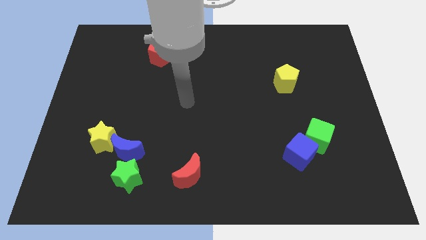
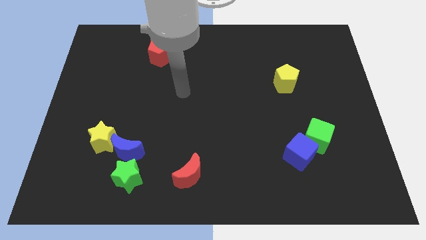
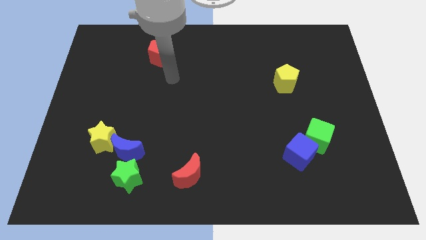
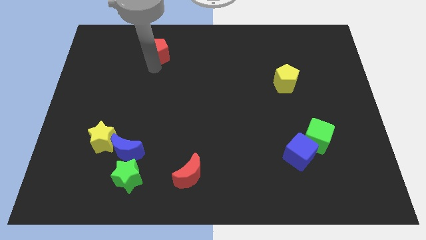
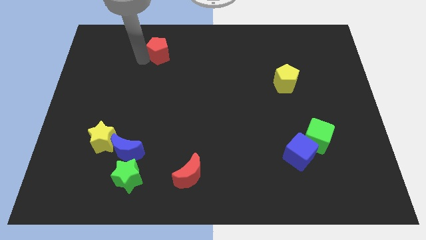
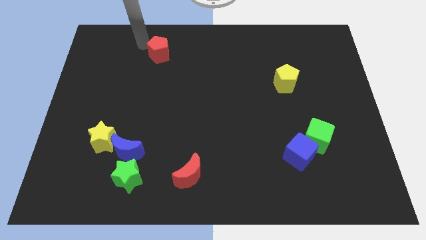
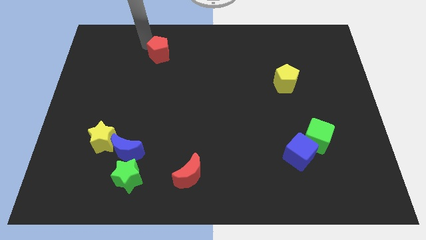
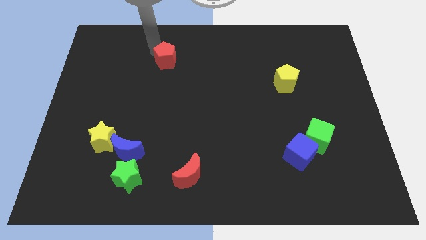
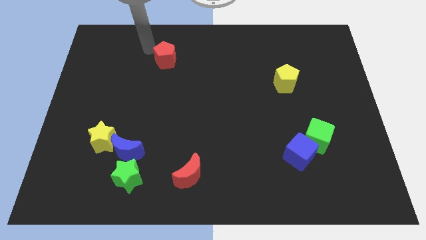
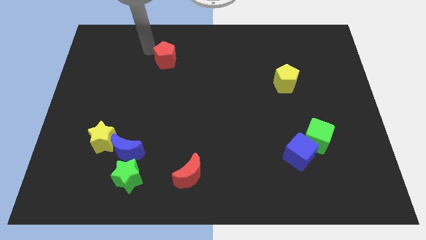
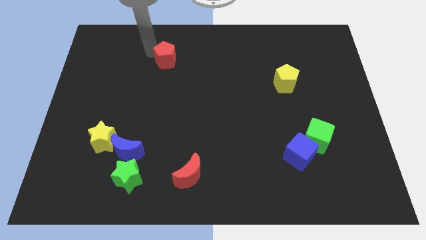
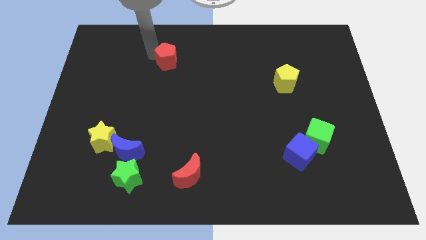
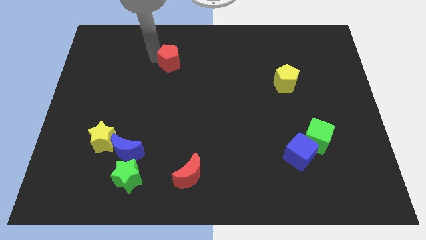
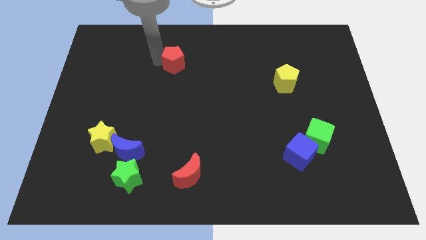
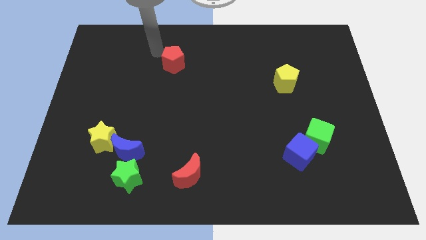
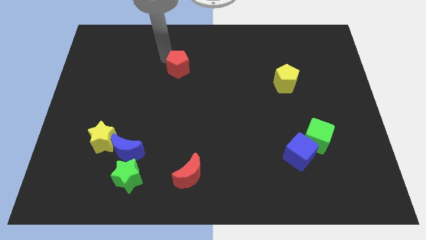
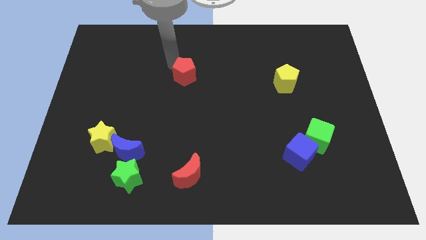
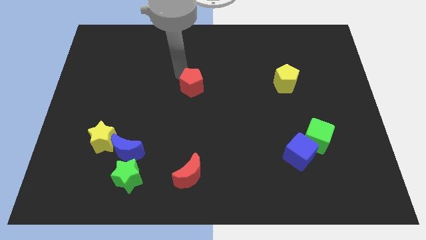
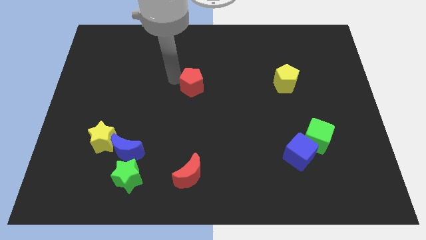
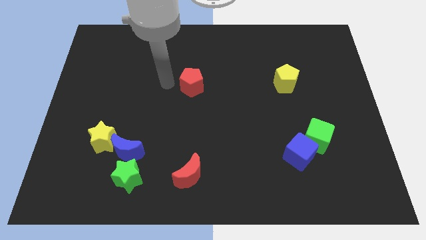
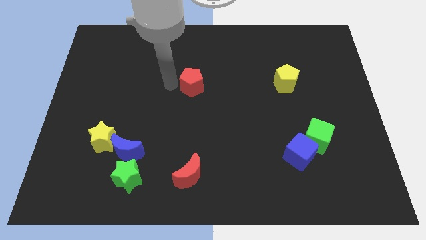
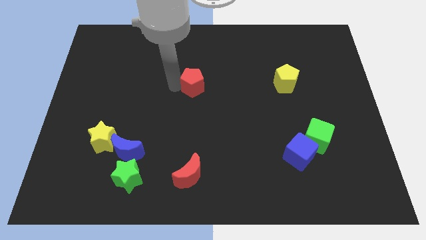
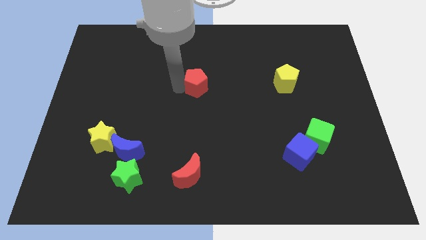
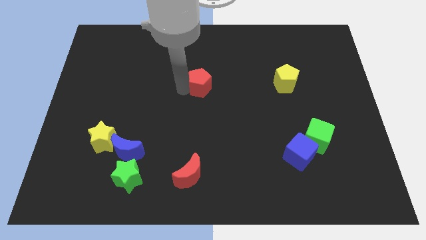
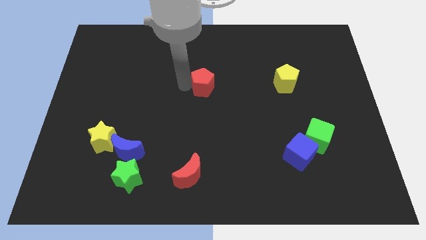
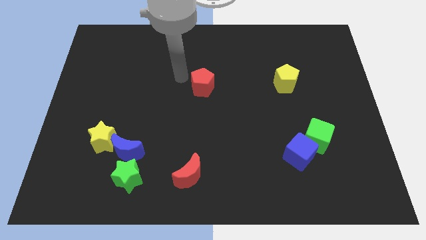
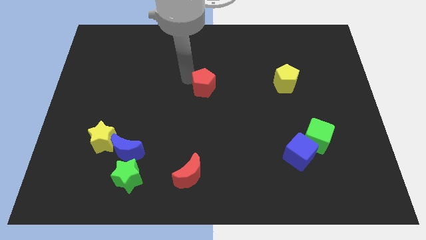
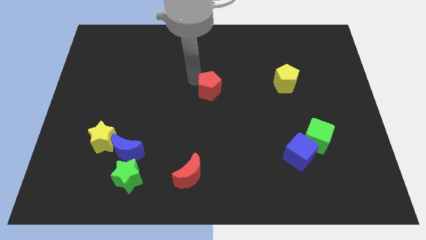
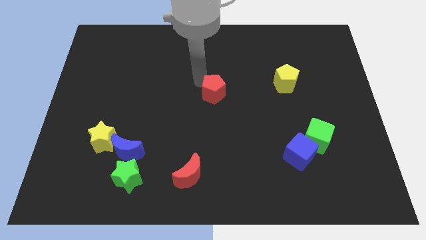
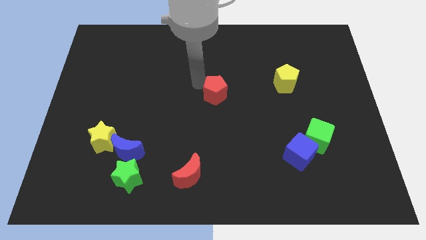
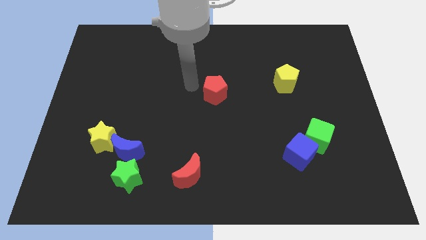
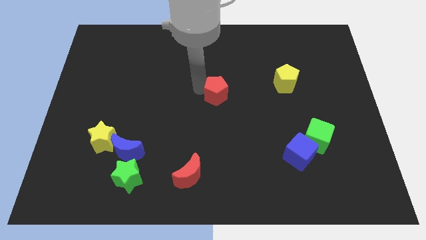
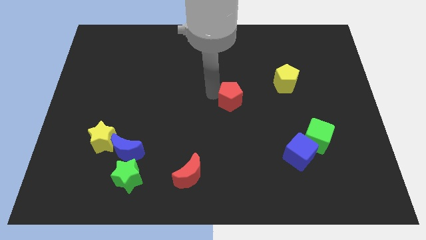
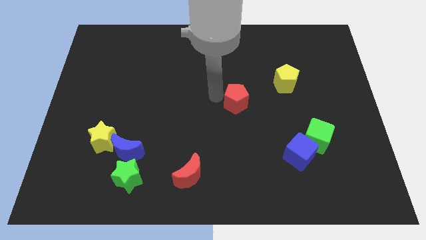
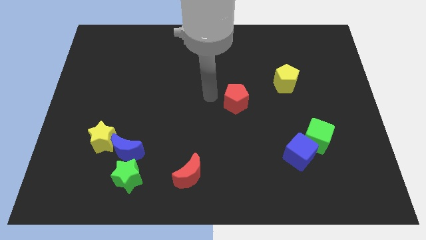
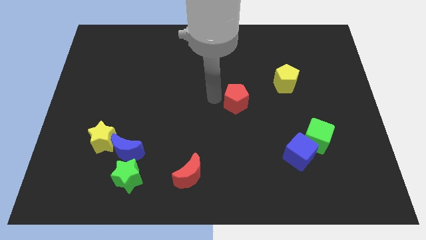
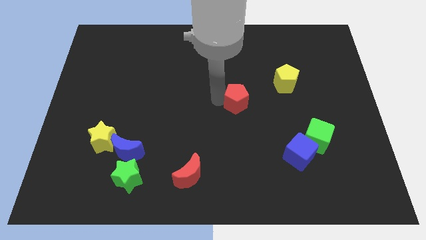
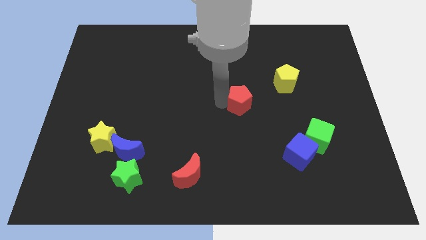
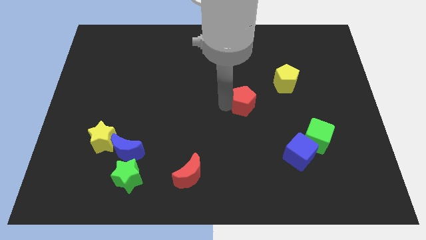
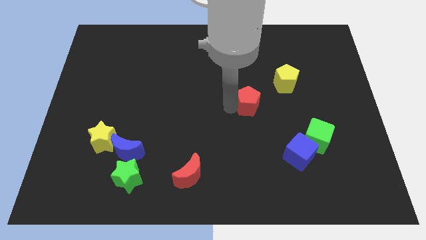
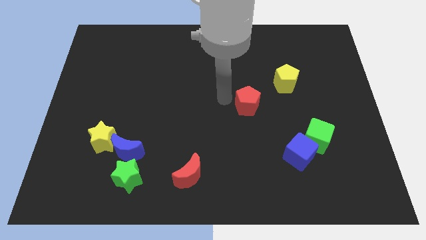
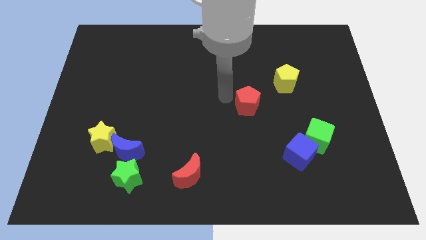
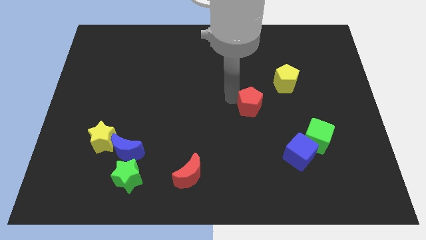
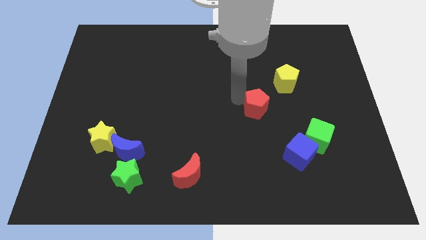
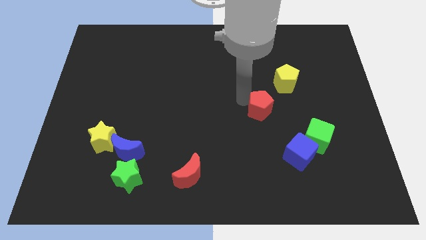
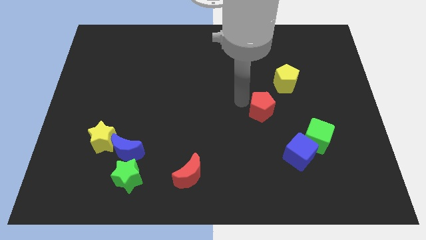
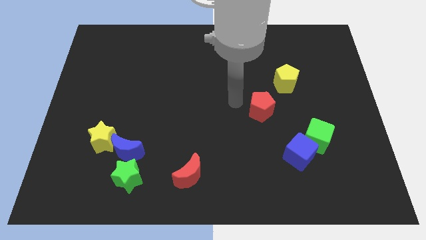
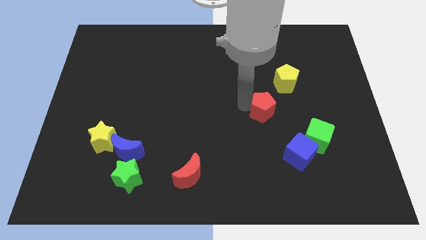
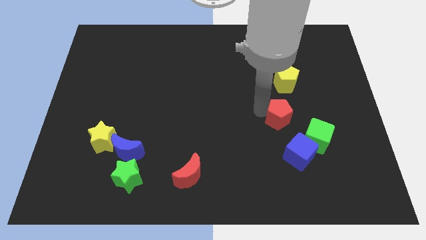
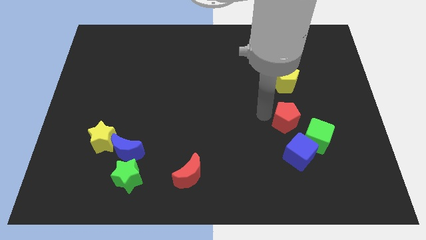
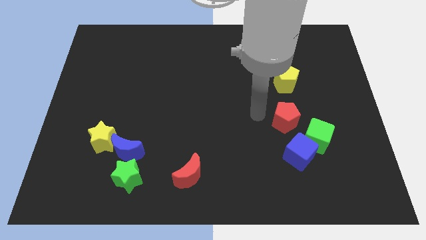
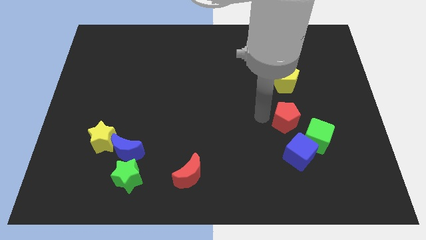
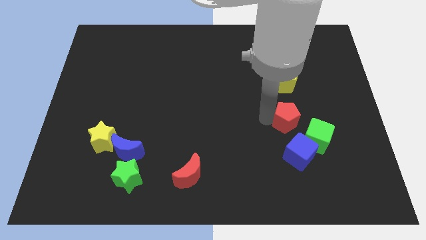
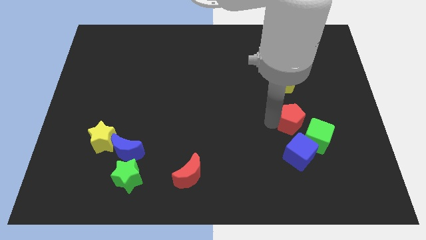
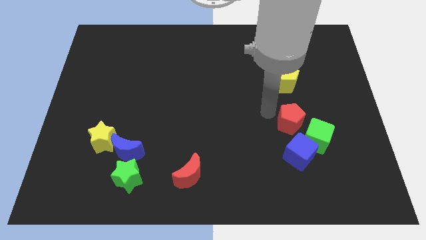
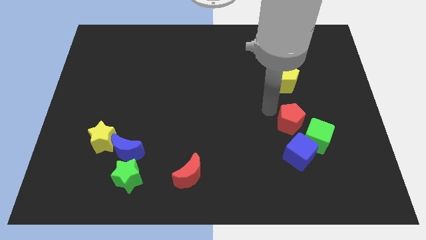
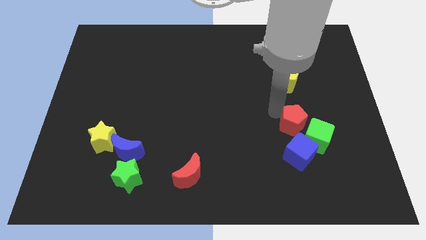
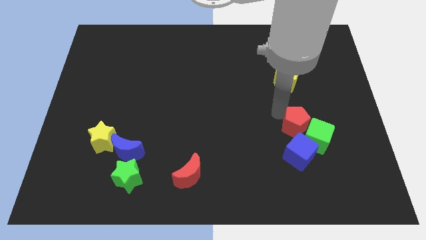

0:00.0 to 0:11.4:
put the red pentagon next to the green cube

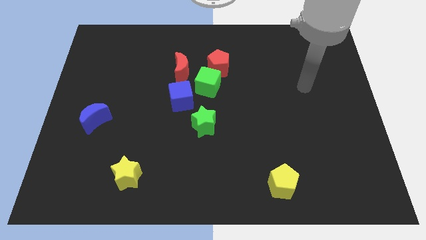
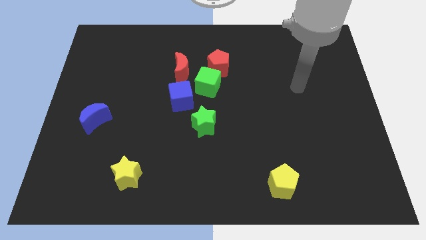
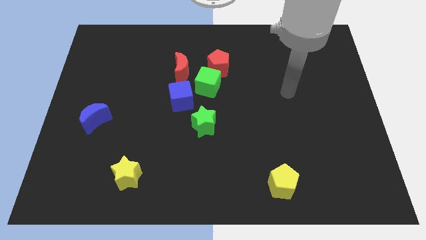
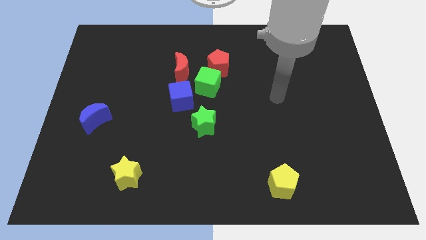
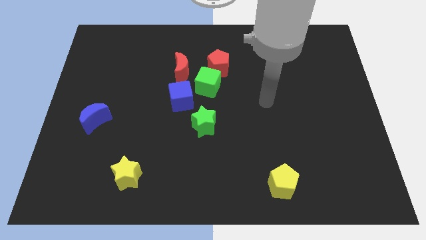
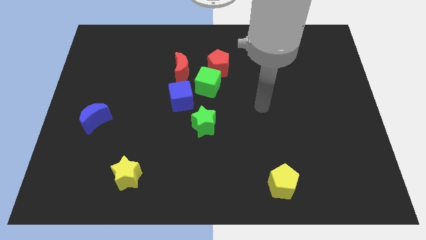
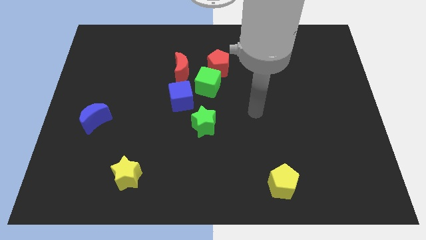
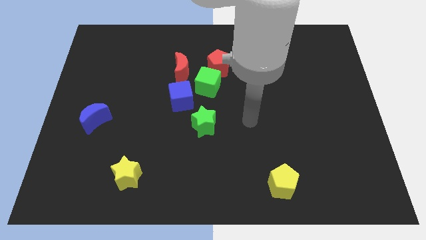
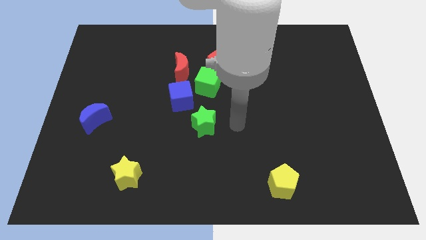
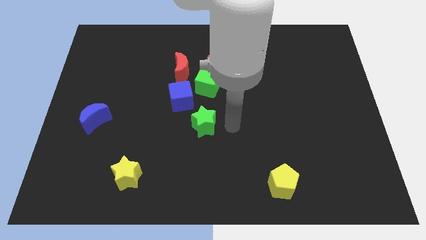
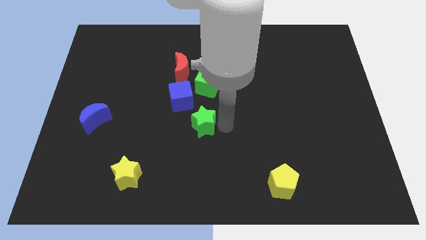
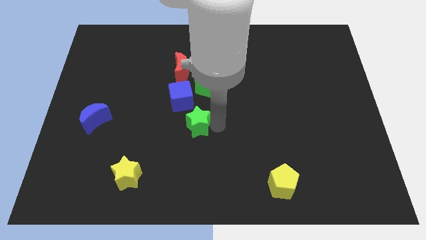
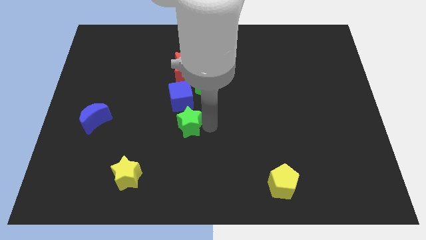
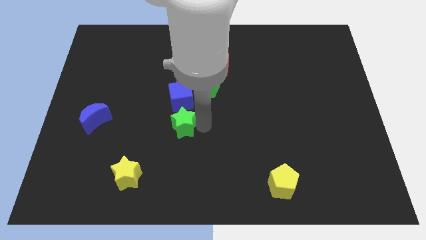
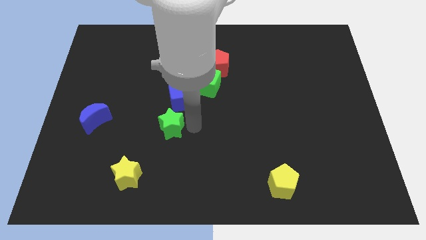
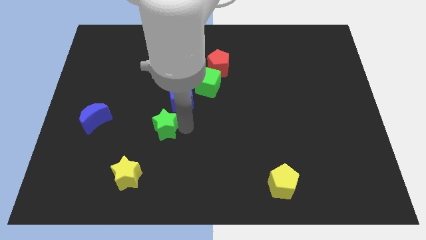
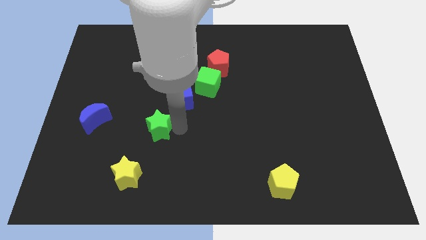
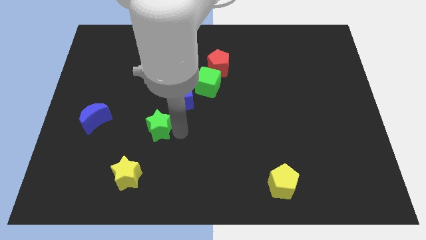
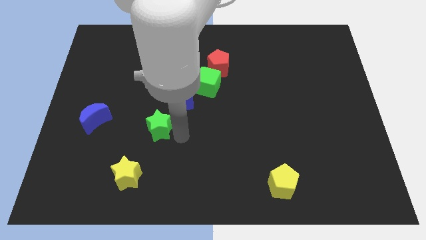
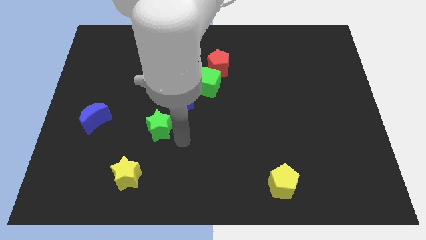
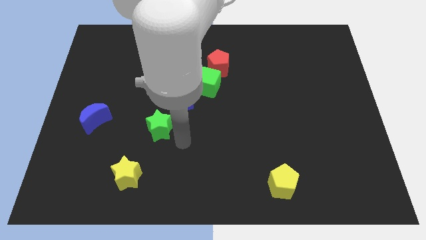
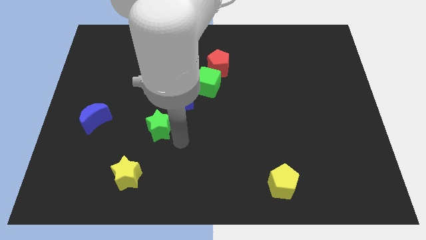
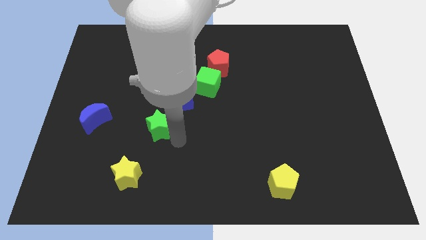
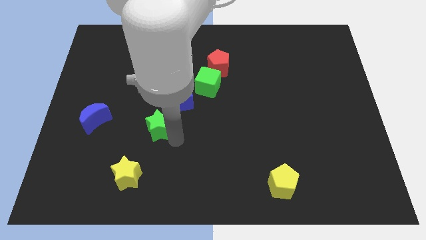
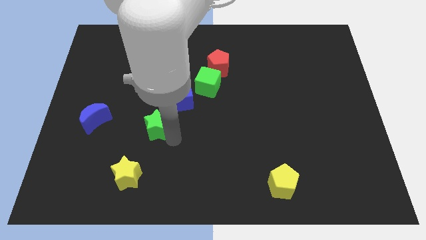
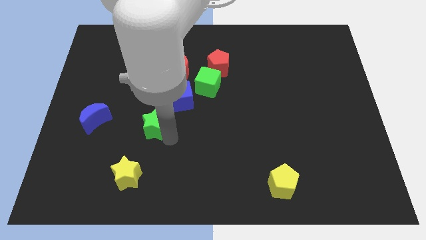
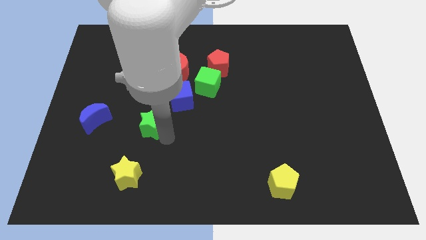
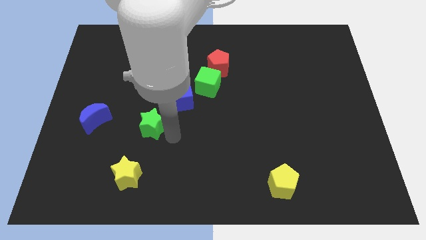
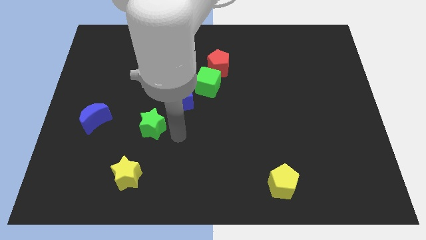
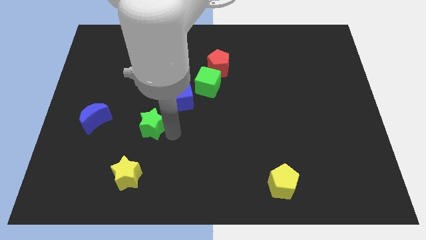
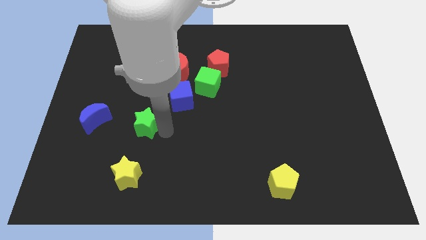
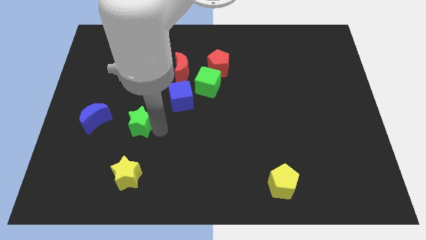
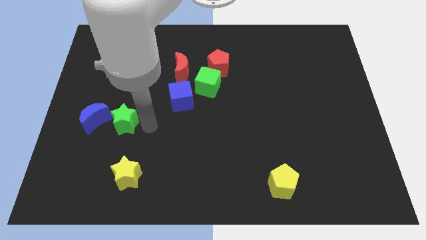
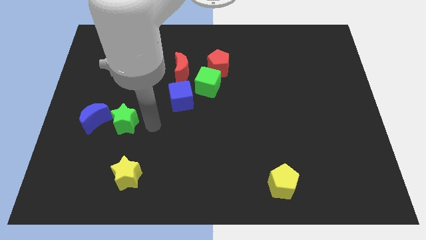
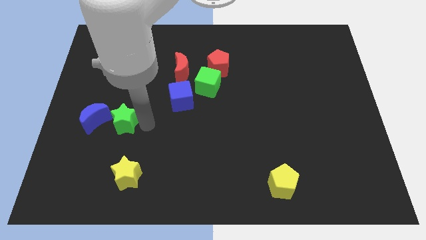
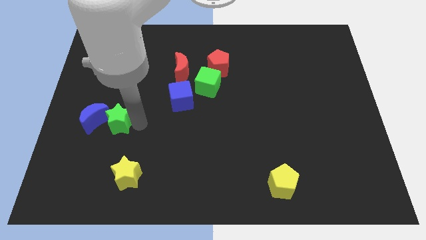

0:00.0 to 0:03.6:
move the green star close to the blue moon
